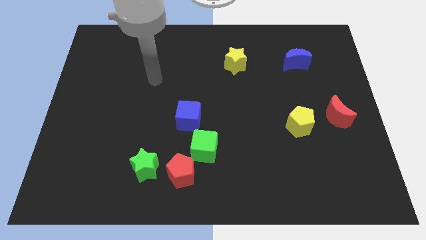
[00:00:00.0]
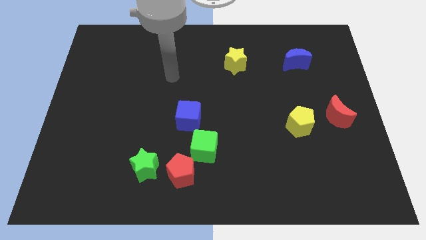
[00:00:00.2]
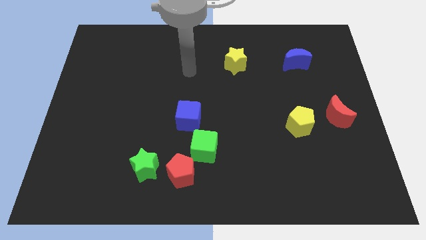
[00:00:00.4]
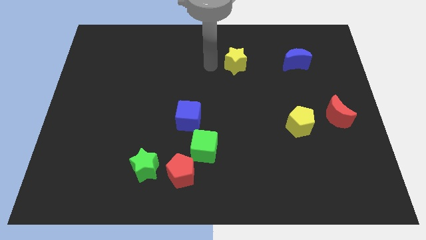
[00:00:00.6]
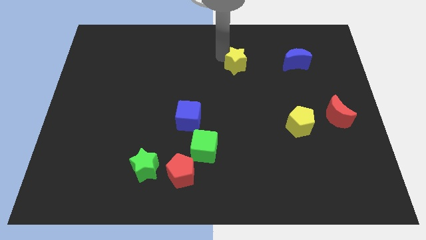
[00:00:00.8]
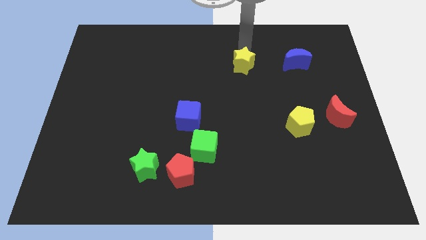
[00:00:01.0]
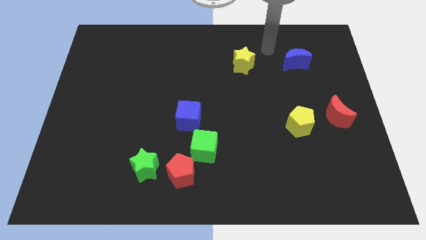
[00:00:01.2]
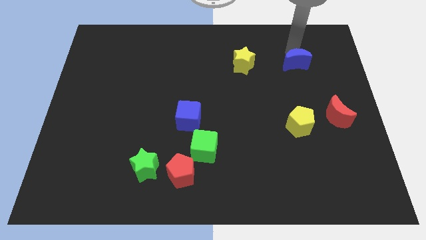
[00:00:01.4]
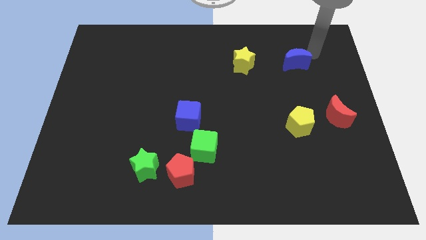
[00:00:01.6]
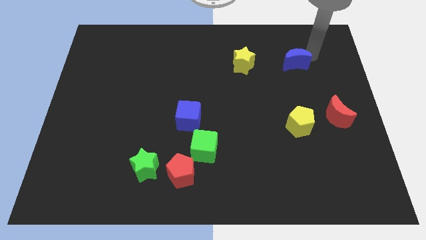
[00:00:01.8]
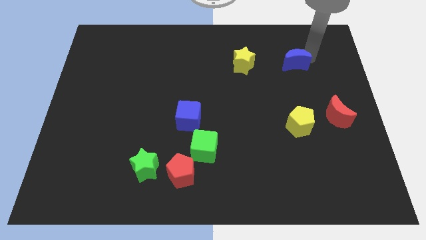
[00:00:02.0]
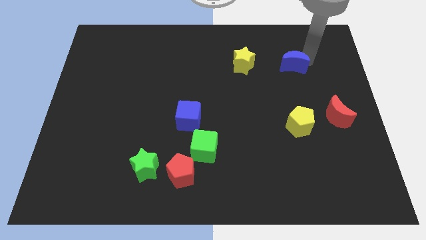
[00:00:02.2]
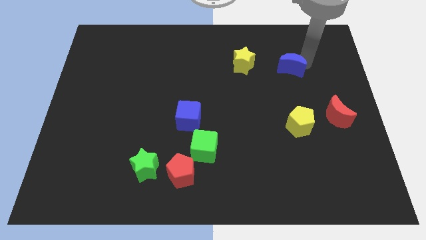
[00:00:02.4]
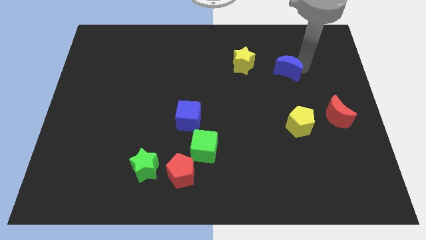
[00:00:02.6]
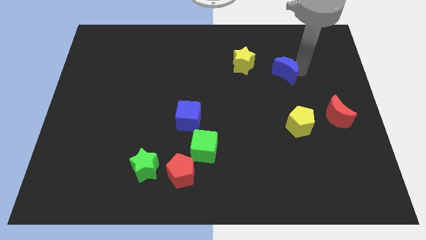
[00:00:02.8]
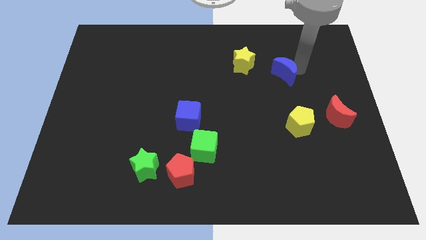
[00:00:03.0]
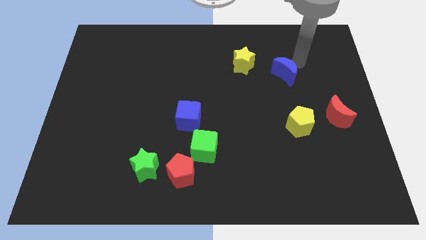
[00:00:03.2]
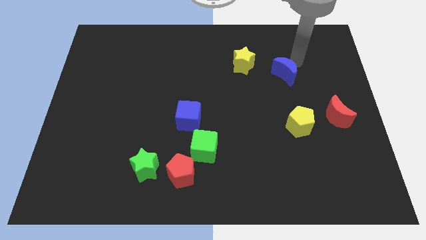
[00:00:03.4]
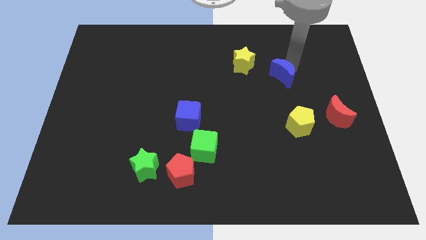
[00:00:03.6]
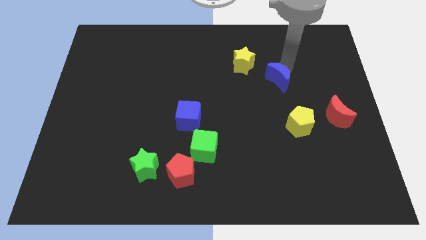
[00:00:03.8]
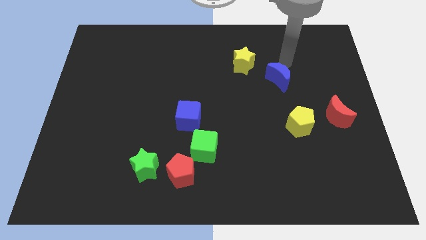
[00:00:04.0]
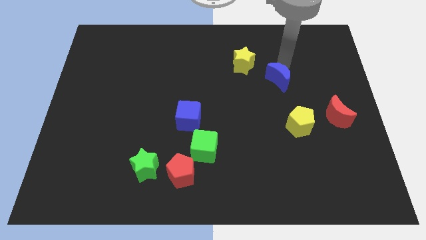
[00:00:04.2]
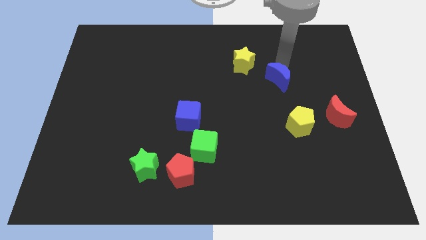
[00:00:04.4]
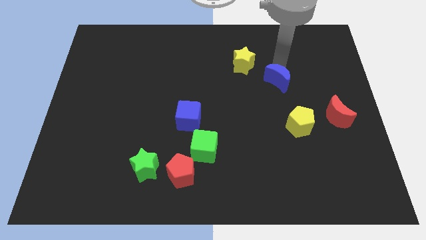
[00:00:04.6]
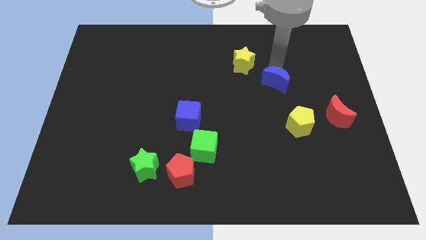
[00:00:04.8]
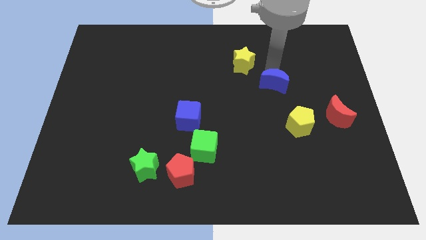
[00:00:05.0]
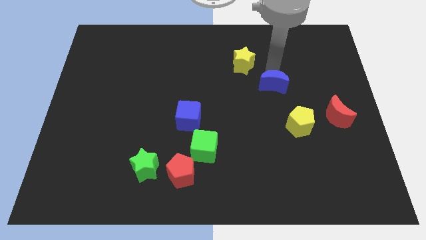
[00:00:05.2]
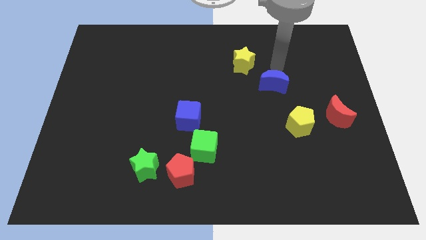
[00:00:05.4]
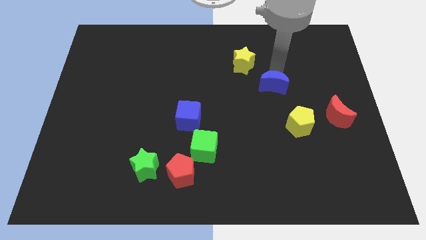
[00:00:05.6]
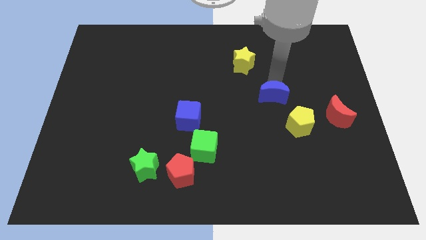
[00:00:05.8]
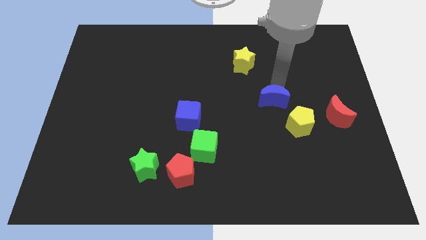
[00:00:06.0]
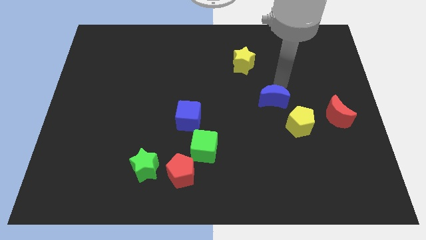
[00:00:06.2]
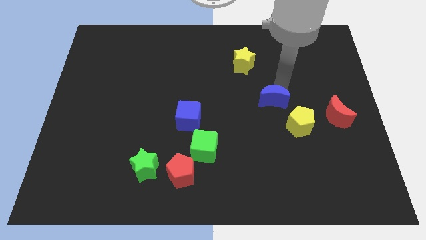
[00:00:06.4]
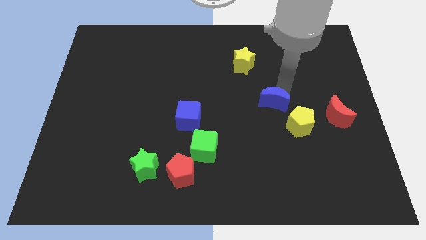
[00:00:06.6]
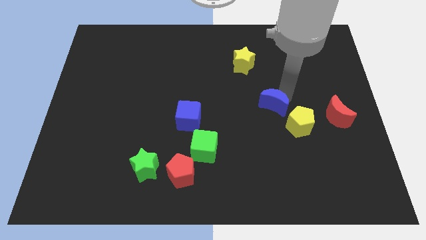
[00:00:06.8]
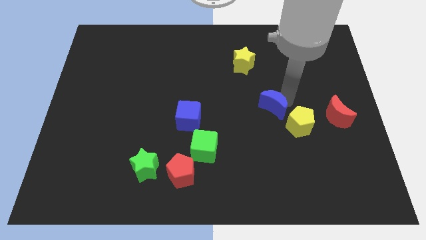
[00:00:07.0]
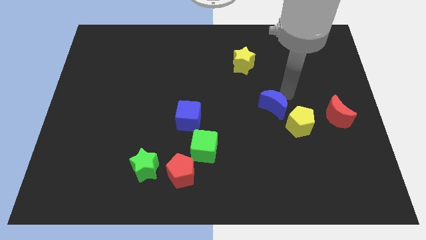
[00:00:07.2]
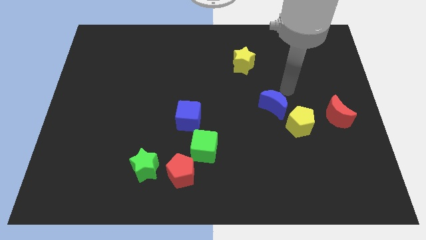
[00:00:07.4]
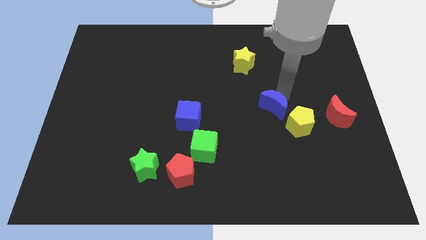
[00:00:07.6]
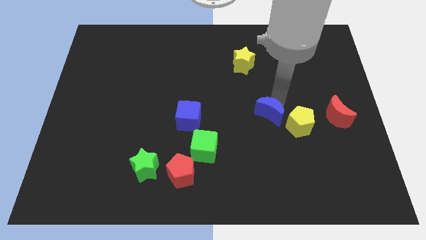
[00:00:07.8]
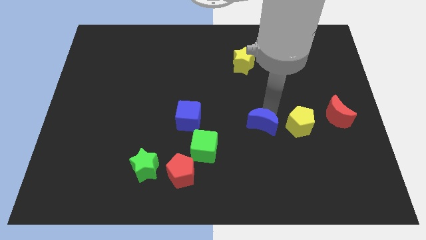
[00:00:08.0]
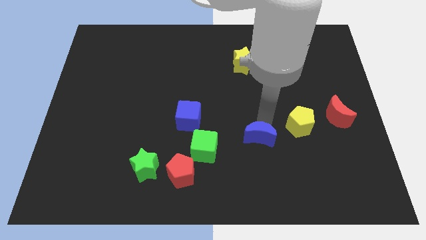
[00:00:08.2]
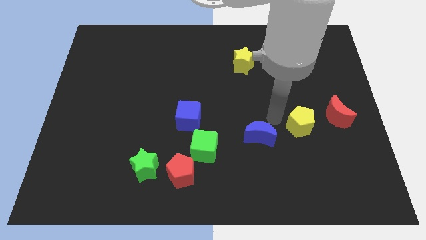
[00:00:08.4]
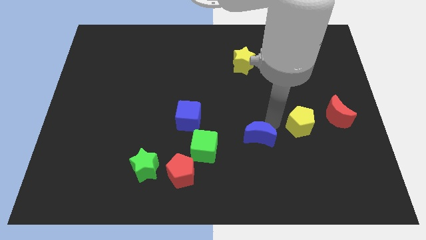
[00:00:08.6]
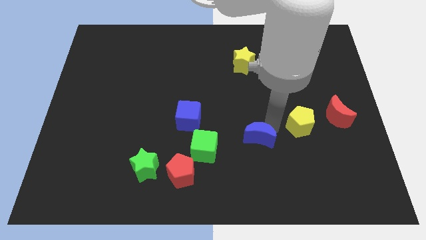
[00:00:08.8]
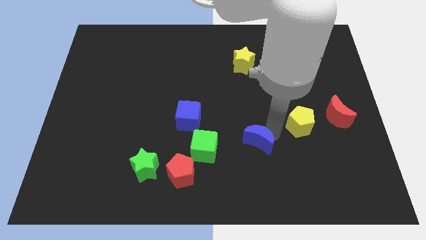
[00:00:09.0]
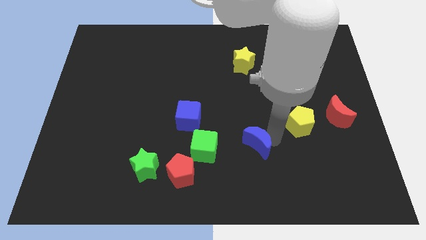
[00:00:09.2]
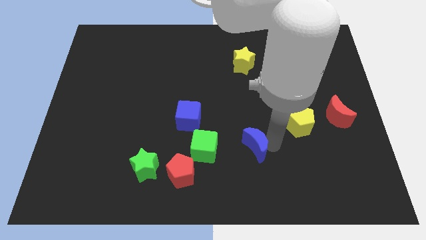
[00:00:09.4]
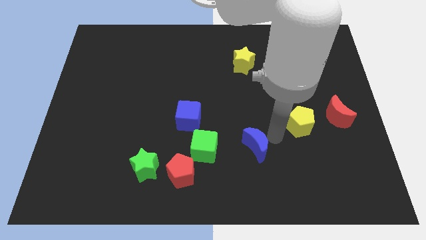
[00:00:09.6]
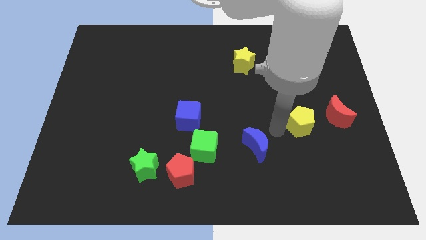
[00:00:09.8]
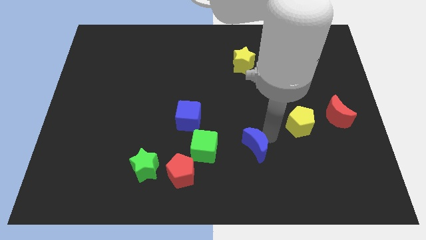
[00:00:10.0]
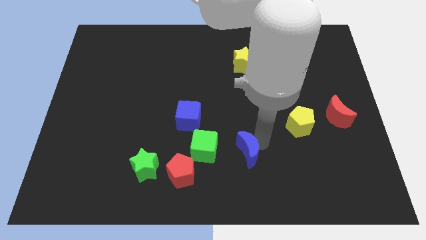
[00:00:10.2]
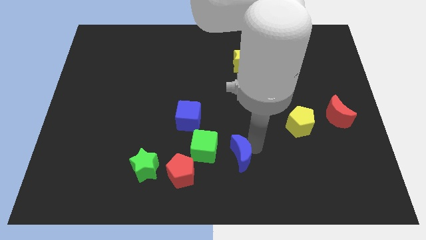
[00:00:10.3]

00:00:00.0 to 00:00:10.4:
push the blue moon to the bottom right of the green cube
